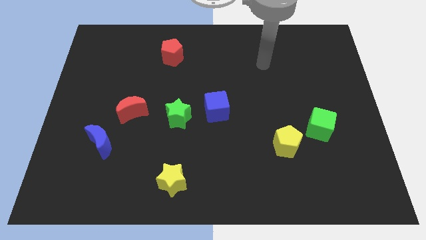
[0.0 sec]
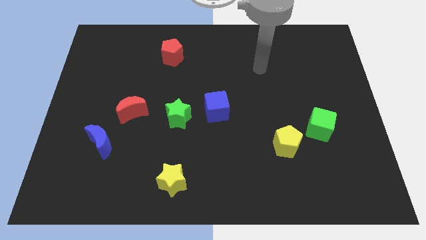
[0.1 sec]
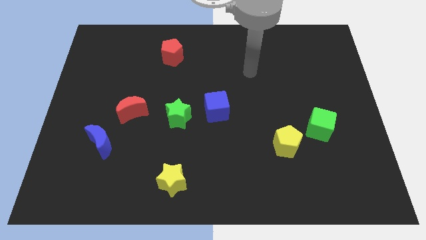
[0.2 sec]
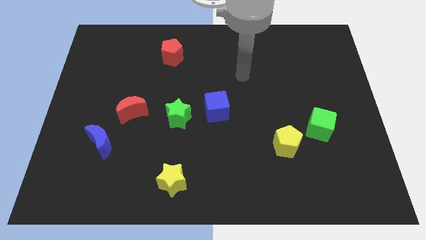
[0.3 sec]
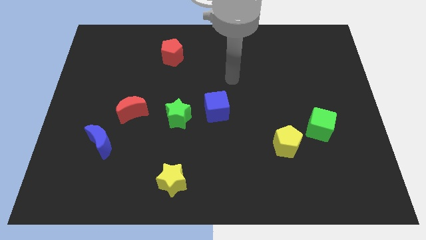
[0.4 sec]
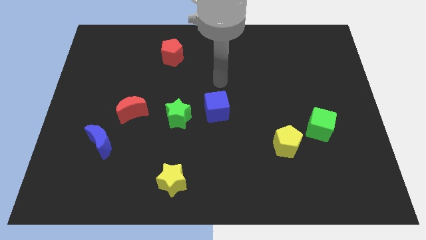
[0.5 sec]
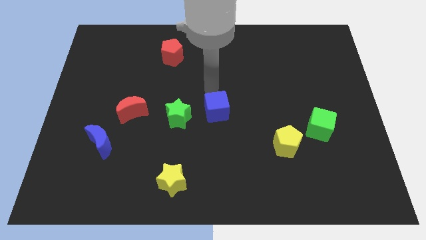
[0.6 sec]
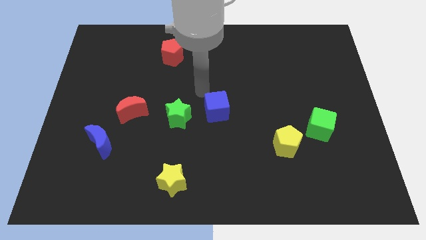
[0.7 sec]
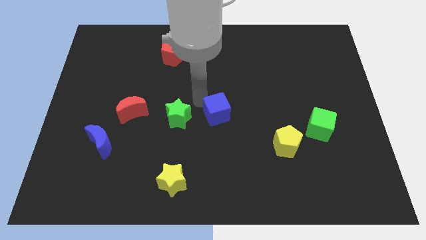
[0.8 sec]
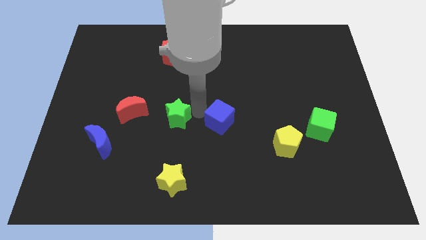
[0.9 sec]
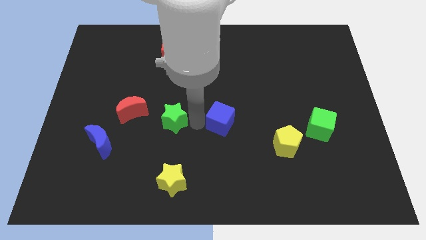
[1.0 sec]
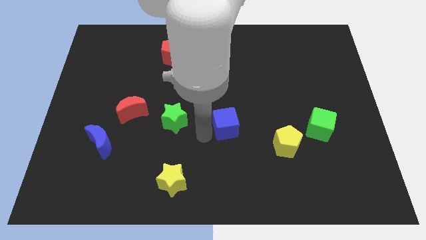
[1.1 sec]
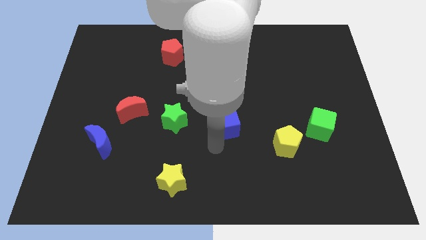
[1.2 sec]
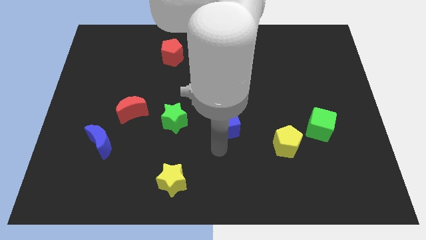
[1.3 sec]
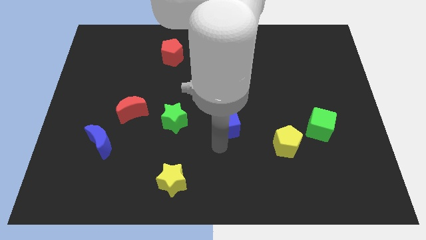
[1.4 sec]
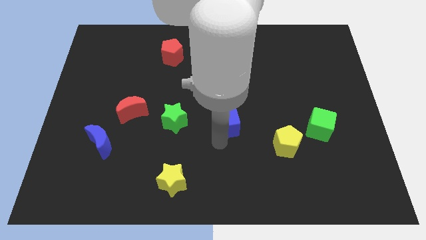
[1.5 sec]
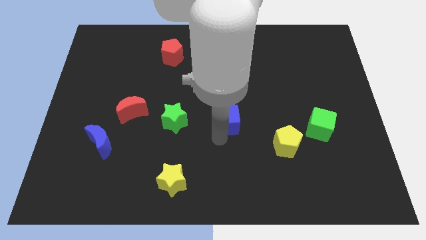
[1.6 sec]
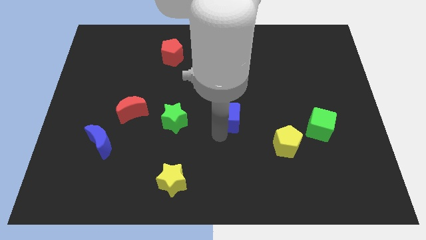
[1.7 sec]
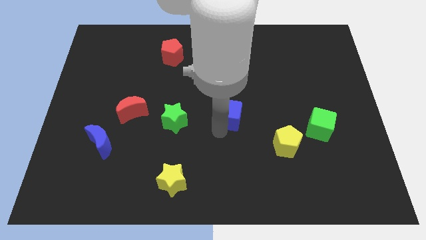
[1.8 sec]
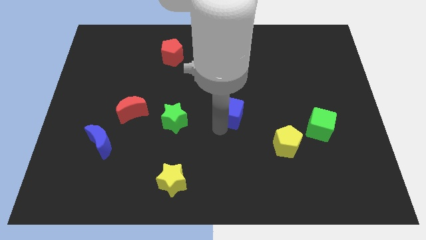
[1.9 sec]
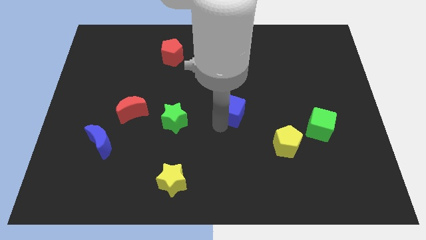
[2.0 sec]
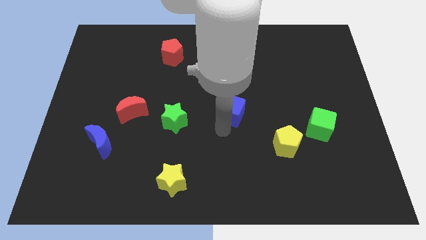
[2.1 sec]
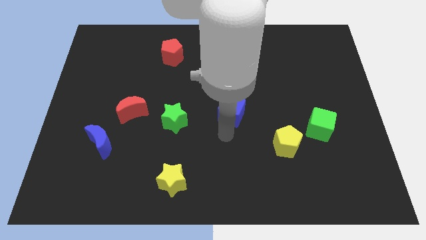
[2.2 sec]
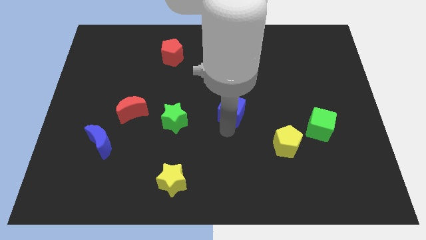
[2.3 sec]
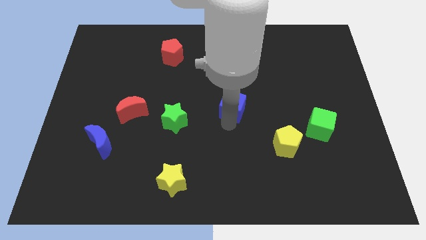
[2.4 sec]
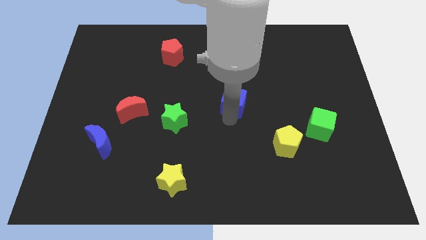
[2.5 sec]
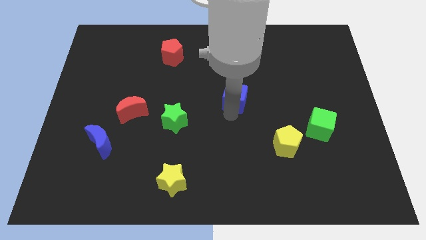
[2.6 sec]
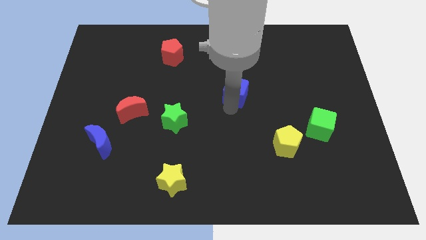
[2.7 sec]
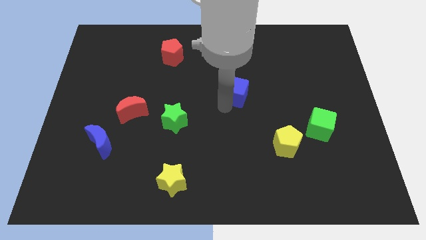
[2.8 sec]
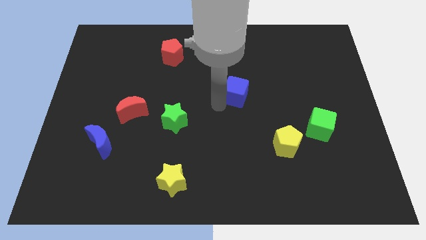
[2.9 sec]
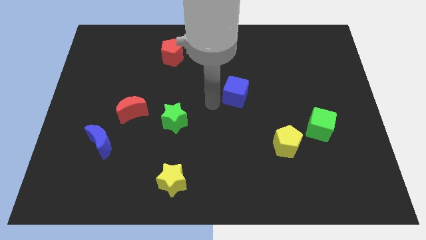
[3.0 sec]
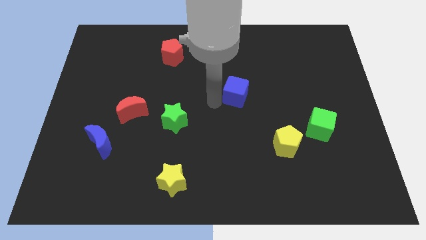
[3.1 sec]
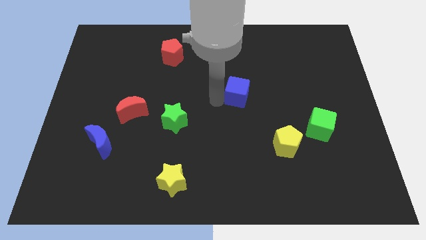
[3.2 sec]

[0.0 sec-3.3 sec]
slightly push the blue cube upwards and to the right diagonally

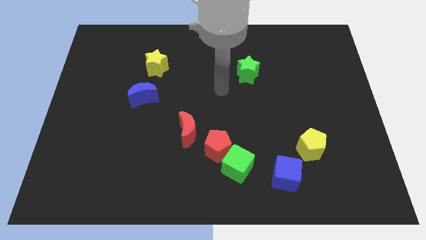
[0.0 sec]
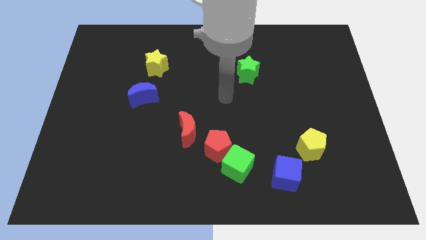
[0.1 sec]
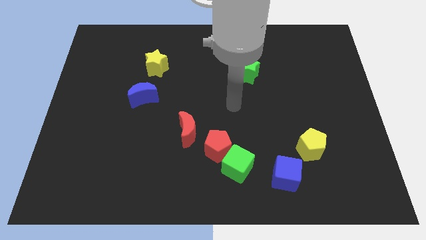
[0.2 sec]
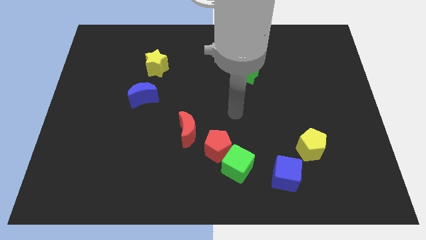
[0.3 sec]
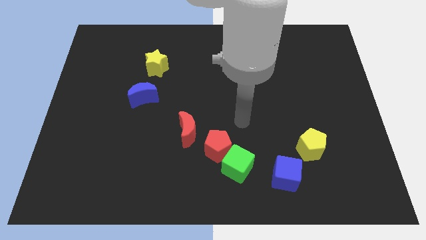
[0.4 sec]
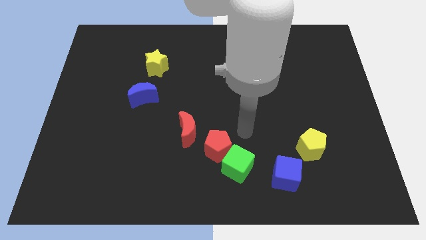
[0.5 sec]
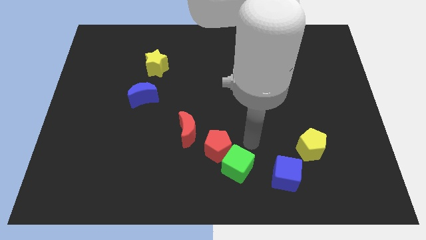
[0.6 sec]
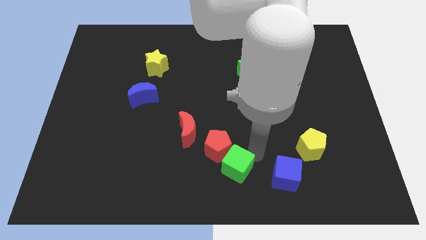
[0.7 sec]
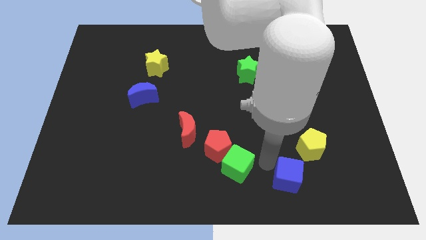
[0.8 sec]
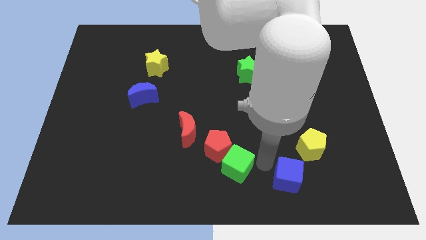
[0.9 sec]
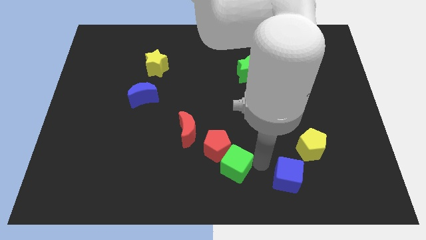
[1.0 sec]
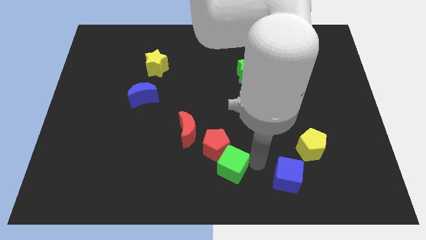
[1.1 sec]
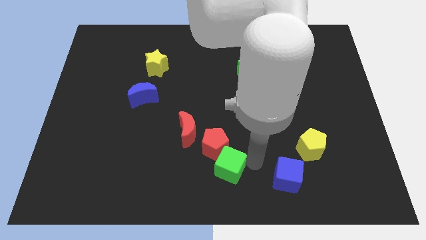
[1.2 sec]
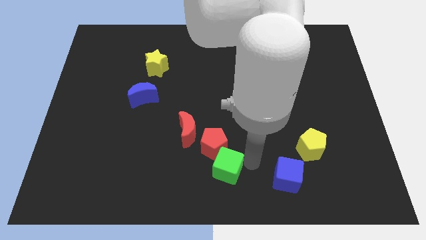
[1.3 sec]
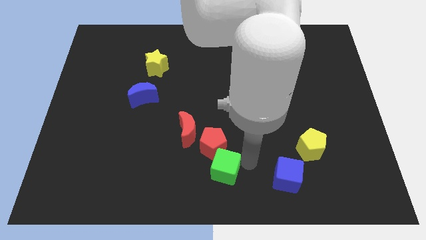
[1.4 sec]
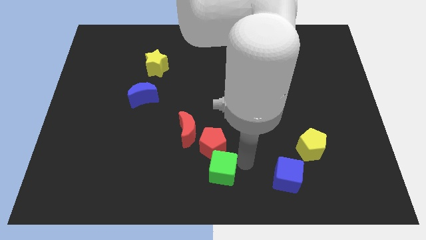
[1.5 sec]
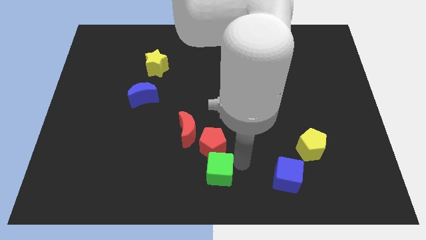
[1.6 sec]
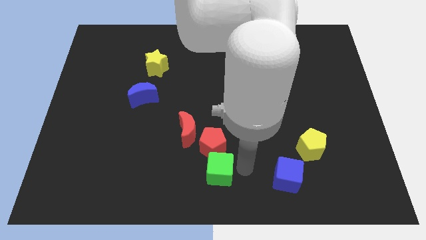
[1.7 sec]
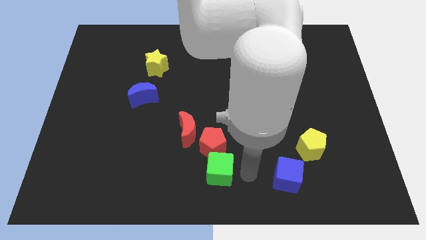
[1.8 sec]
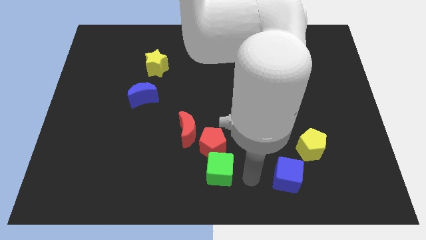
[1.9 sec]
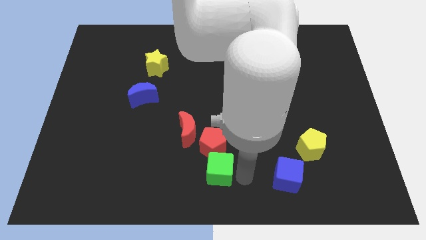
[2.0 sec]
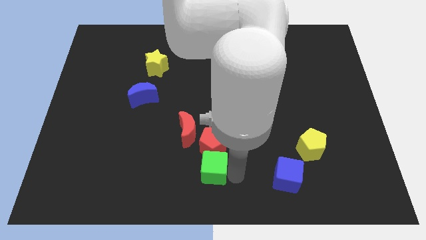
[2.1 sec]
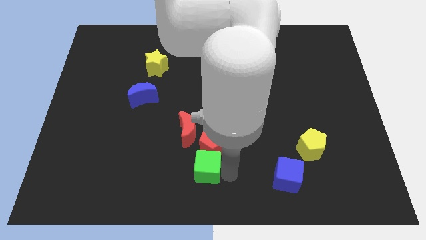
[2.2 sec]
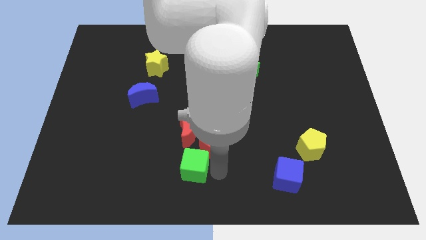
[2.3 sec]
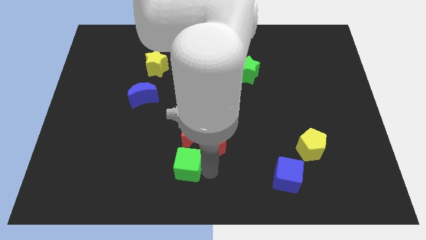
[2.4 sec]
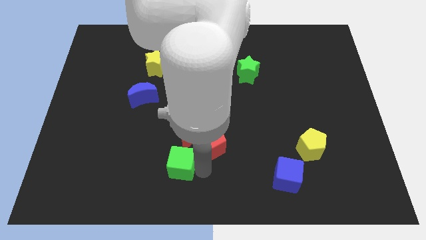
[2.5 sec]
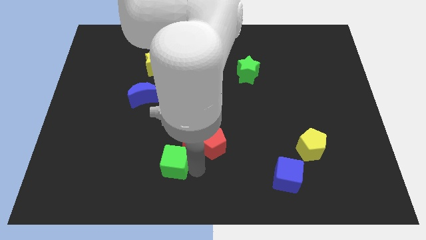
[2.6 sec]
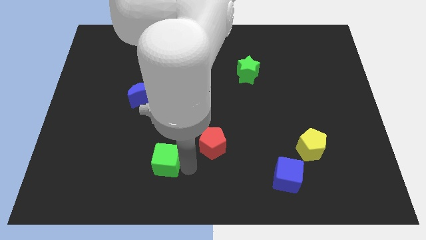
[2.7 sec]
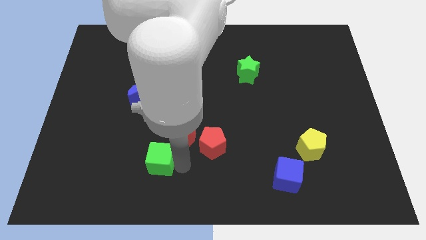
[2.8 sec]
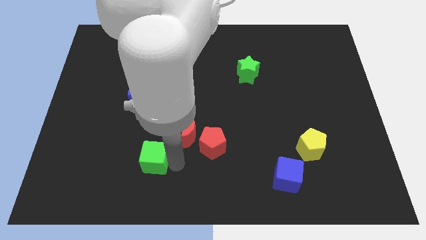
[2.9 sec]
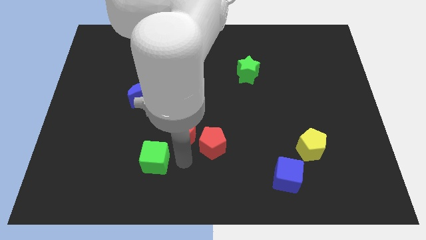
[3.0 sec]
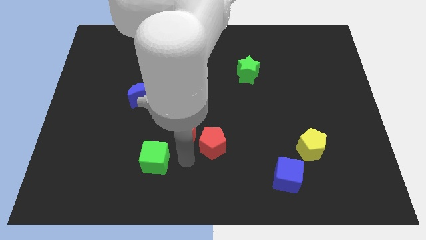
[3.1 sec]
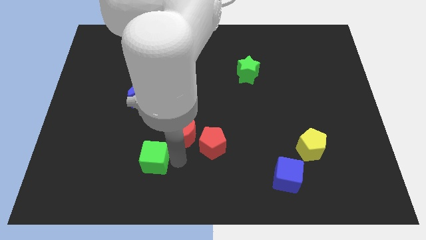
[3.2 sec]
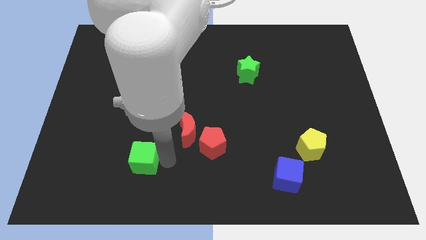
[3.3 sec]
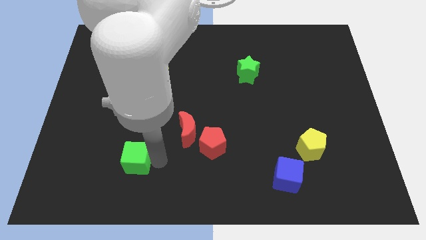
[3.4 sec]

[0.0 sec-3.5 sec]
push the green cube to the left

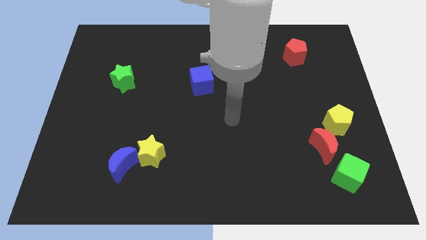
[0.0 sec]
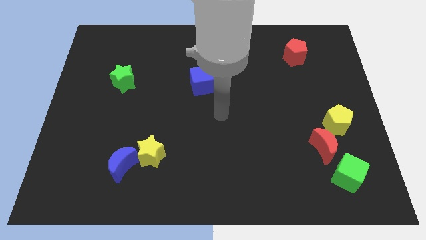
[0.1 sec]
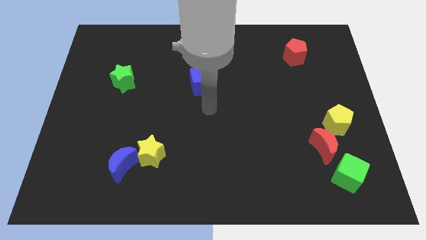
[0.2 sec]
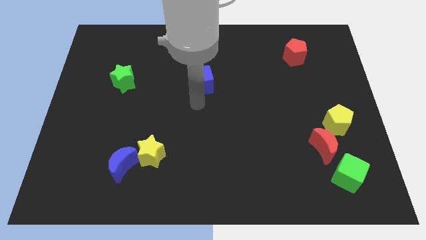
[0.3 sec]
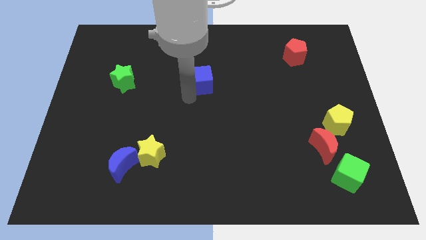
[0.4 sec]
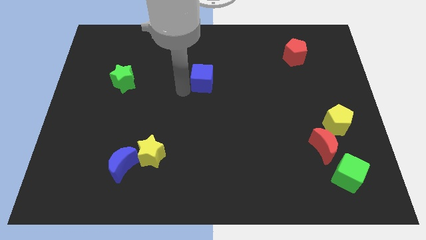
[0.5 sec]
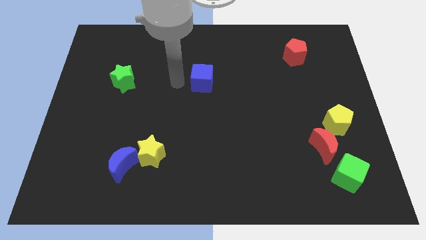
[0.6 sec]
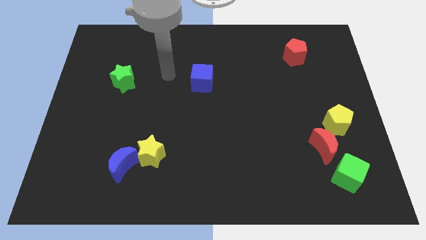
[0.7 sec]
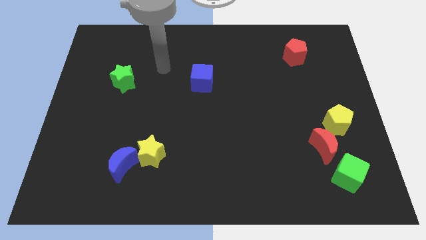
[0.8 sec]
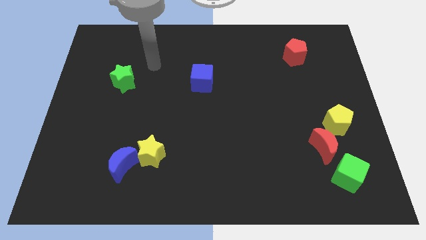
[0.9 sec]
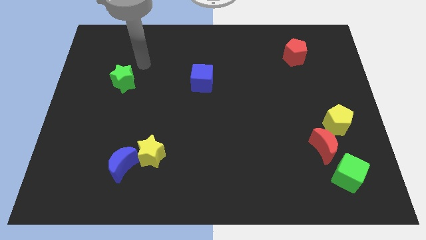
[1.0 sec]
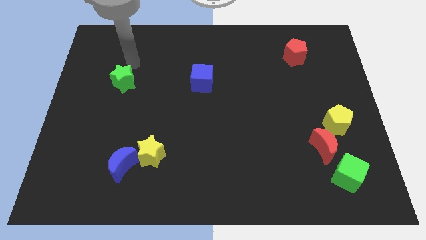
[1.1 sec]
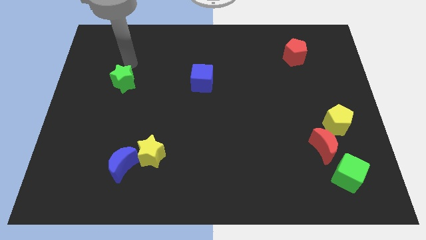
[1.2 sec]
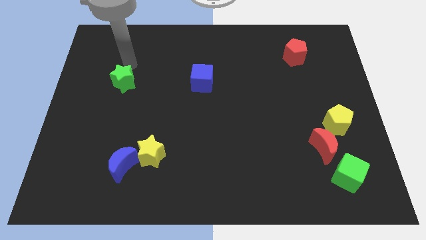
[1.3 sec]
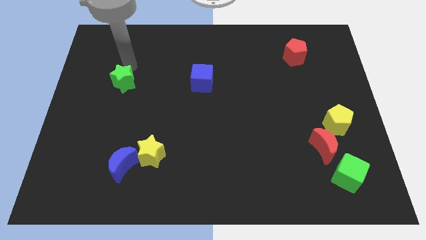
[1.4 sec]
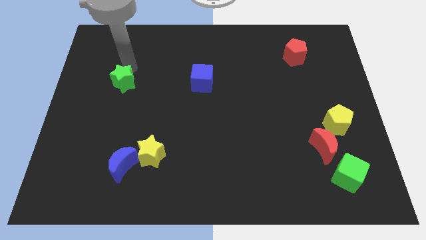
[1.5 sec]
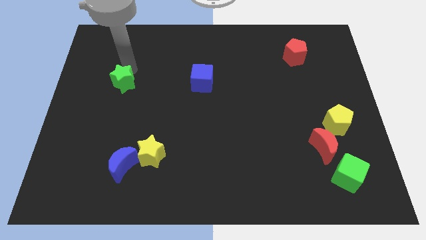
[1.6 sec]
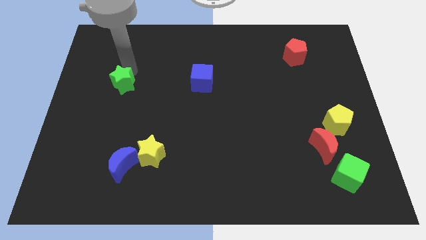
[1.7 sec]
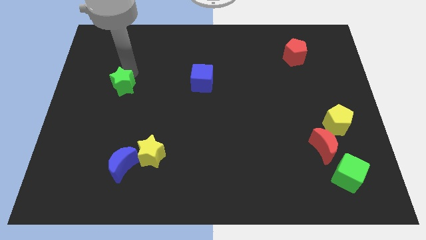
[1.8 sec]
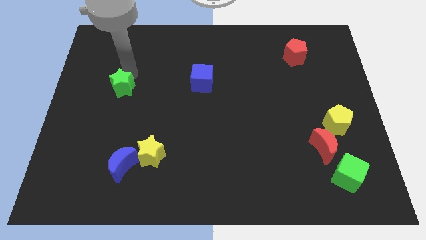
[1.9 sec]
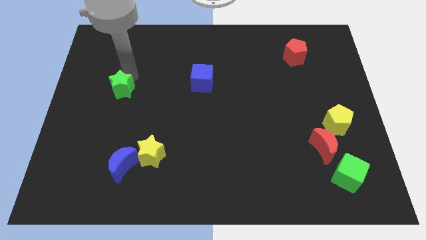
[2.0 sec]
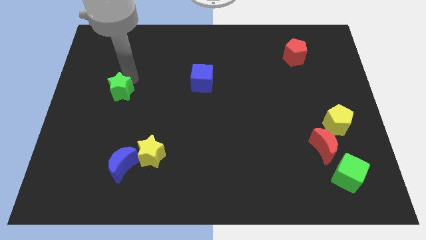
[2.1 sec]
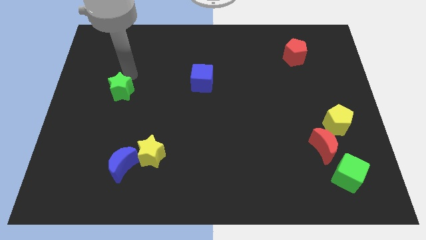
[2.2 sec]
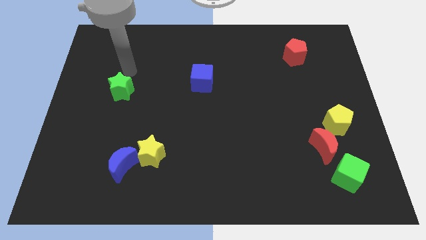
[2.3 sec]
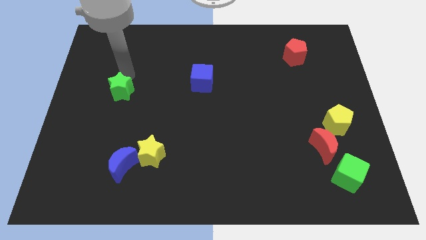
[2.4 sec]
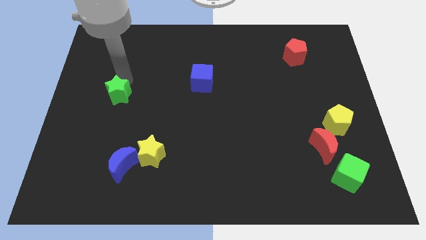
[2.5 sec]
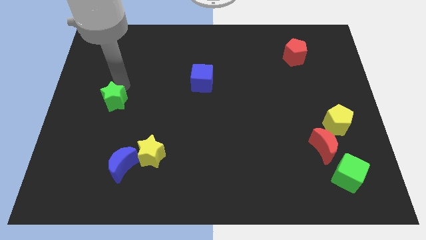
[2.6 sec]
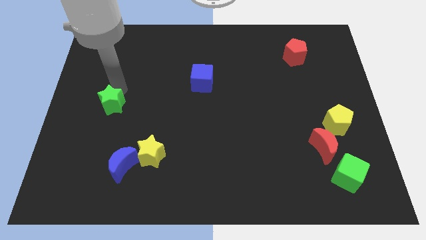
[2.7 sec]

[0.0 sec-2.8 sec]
move the green star down a little
